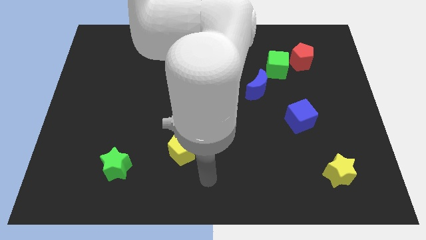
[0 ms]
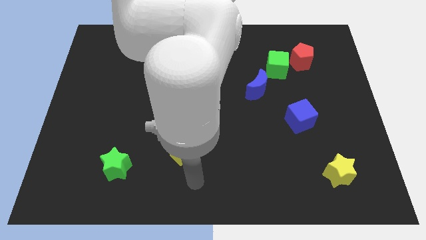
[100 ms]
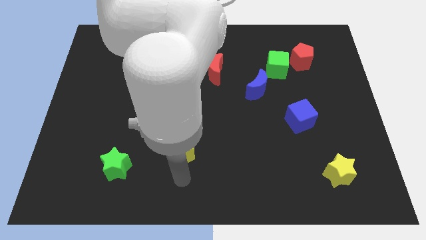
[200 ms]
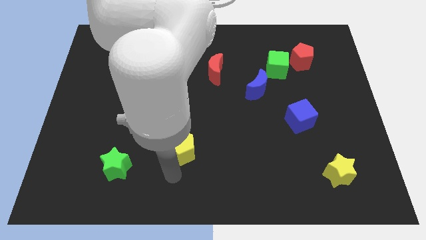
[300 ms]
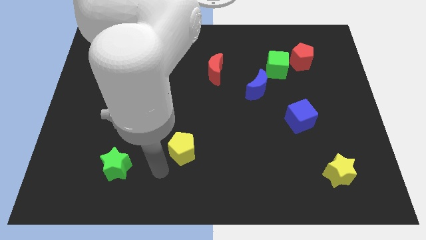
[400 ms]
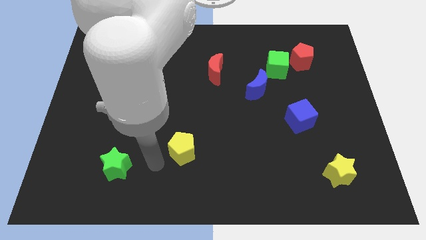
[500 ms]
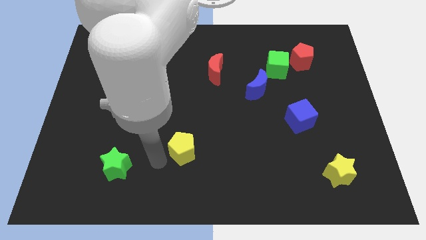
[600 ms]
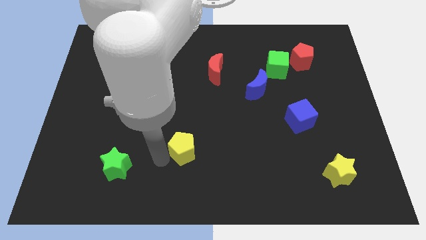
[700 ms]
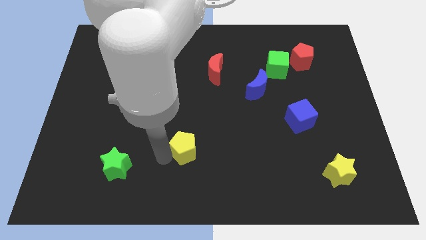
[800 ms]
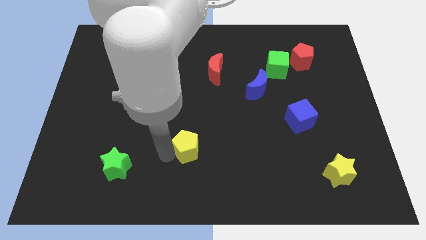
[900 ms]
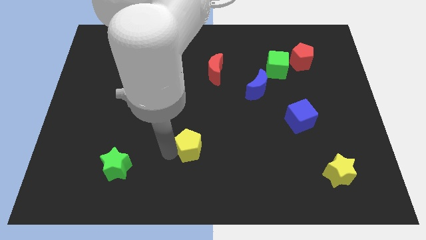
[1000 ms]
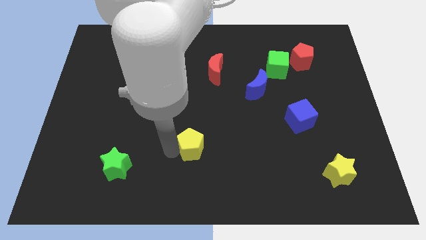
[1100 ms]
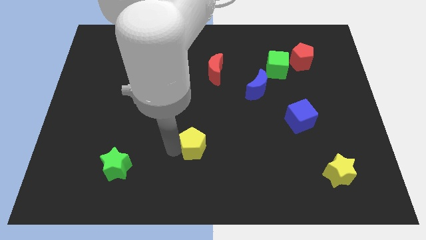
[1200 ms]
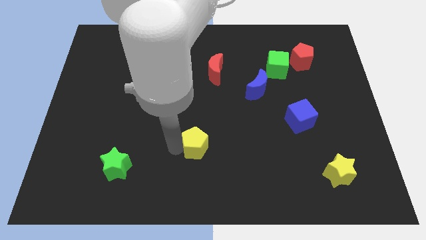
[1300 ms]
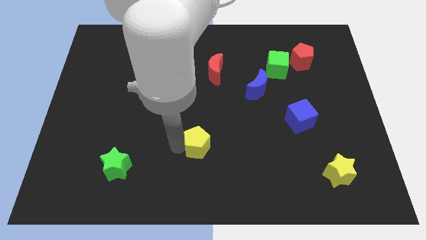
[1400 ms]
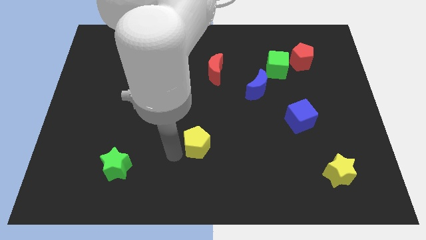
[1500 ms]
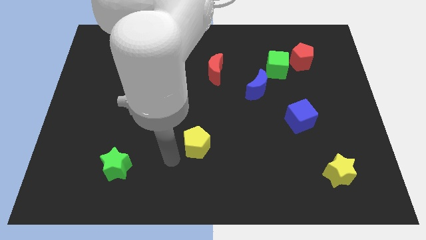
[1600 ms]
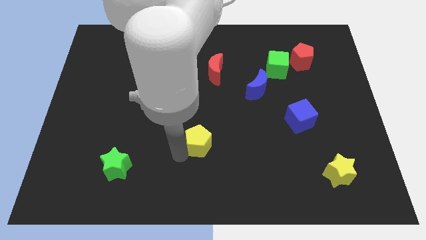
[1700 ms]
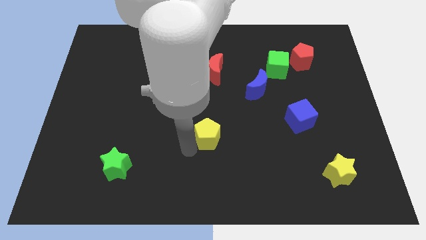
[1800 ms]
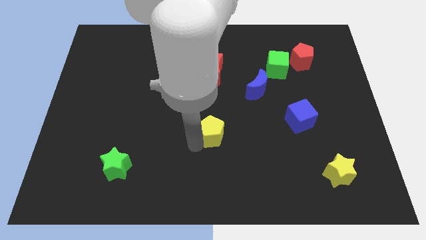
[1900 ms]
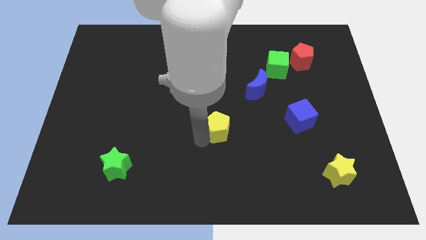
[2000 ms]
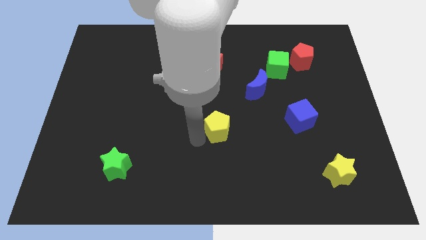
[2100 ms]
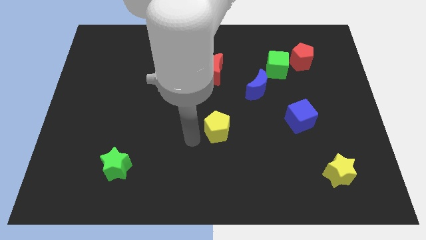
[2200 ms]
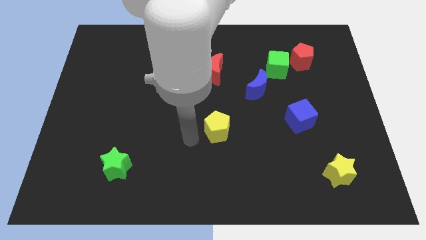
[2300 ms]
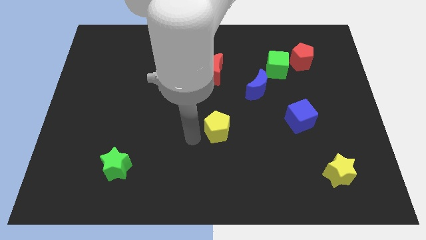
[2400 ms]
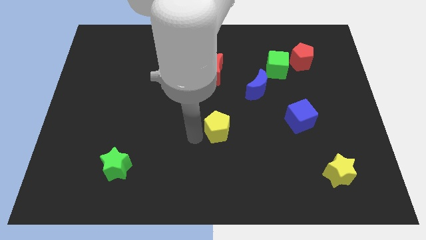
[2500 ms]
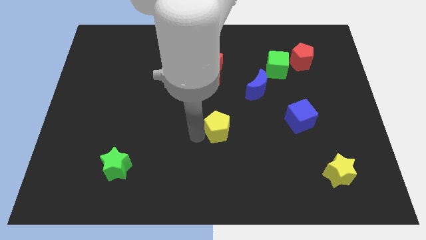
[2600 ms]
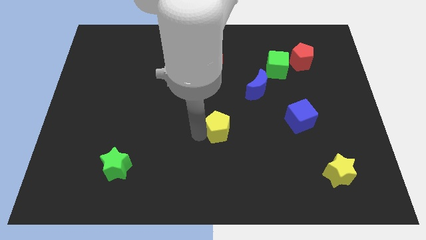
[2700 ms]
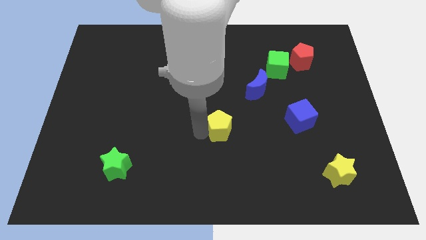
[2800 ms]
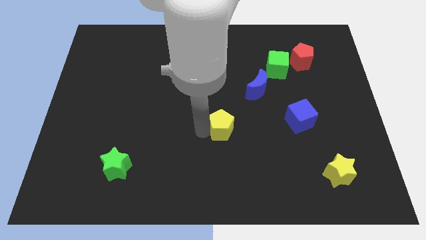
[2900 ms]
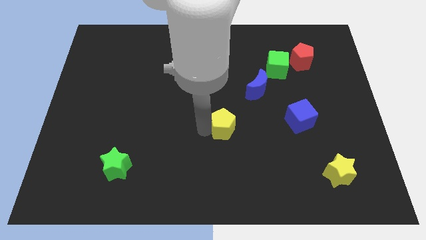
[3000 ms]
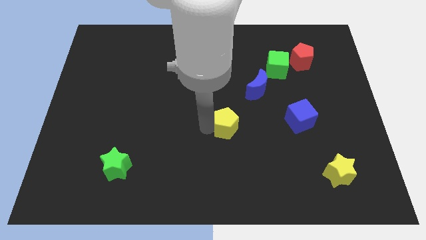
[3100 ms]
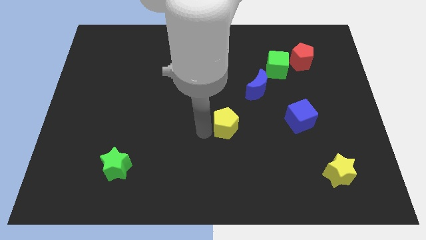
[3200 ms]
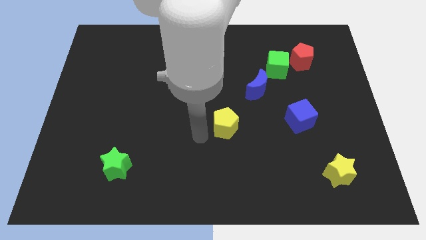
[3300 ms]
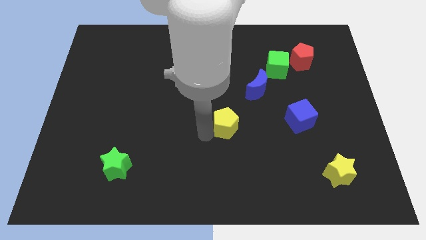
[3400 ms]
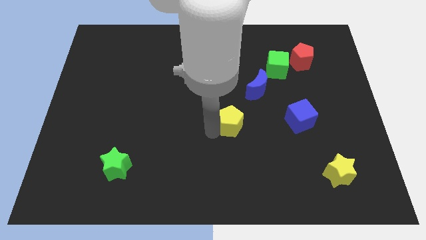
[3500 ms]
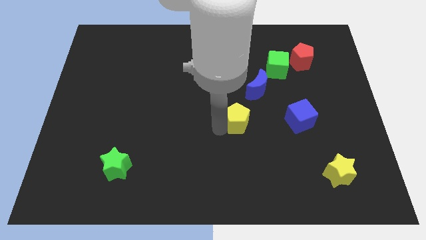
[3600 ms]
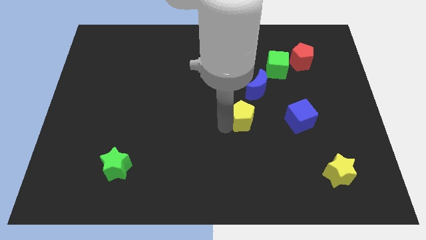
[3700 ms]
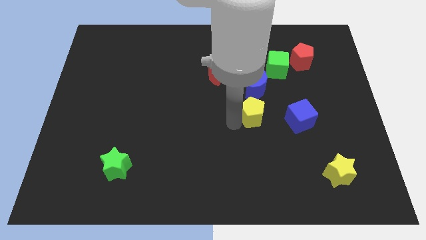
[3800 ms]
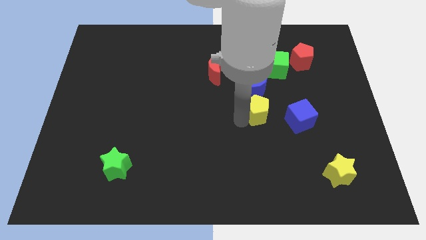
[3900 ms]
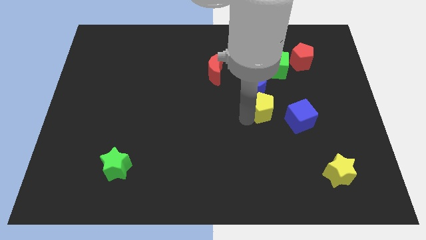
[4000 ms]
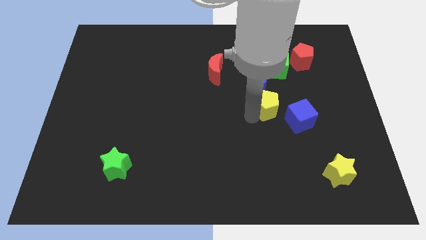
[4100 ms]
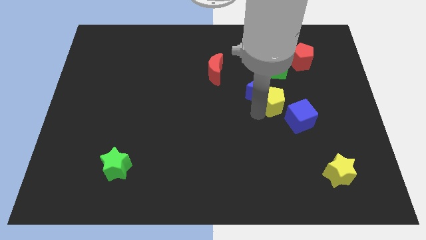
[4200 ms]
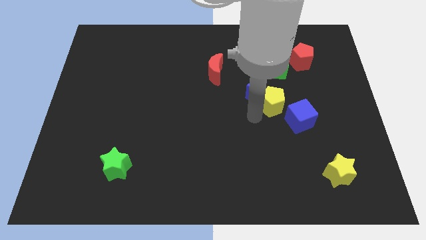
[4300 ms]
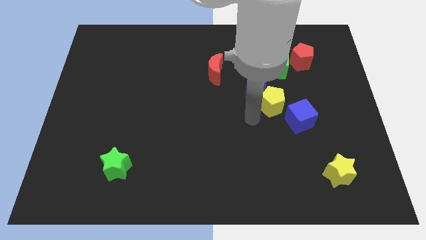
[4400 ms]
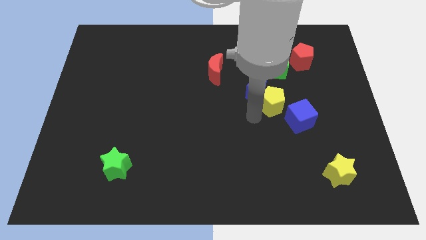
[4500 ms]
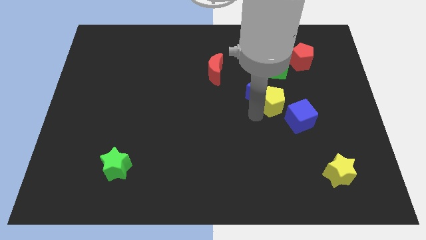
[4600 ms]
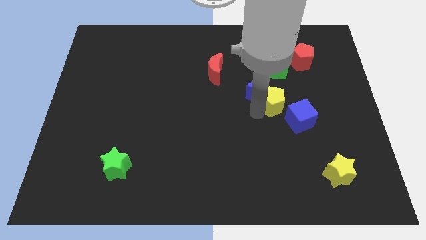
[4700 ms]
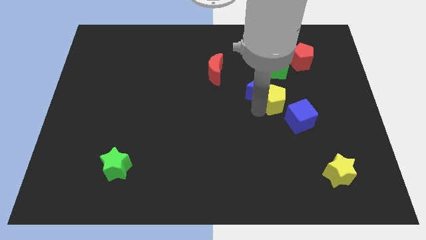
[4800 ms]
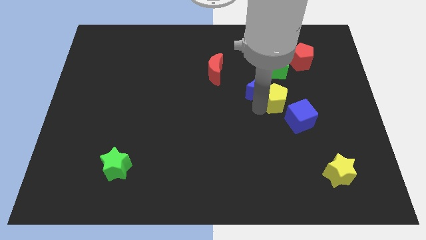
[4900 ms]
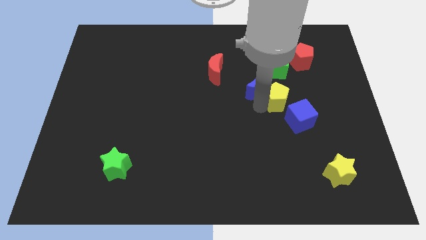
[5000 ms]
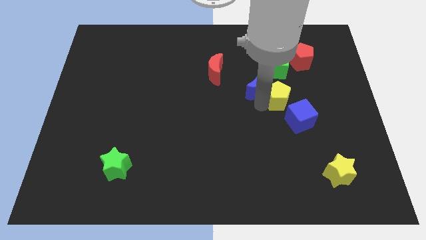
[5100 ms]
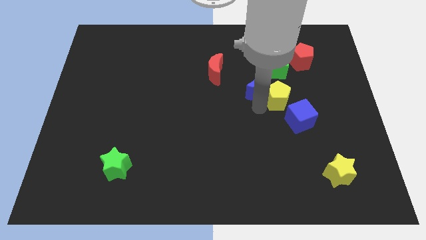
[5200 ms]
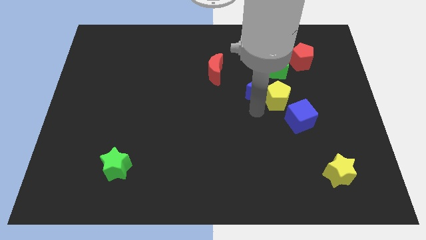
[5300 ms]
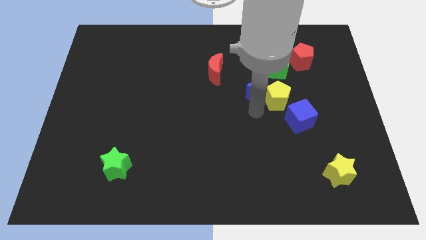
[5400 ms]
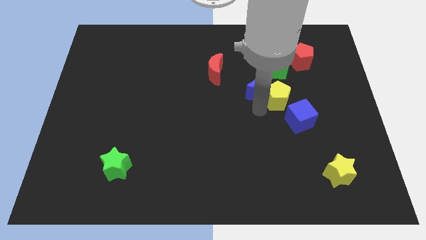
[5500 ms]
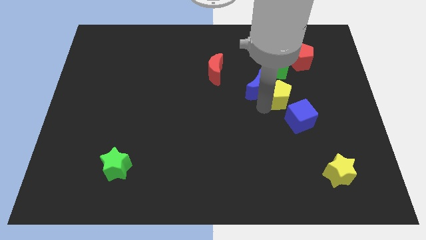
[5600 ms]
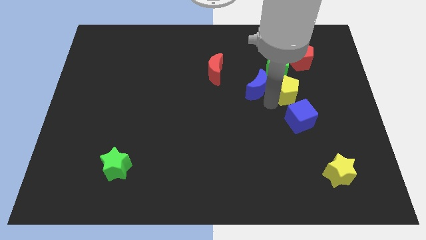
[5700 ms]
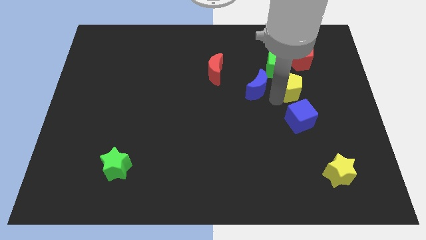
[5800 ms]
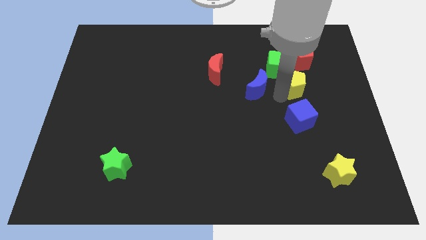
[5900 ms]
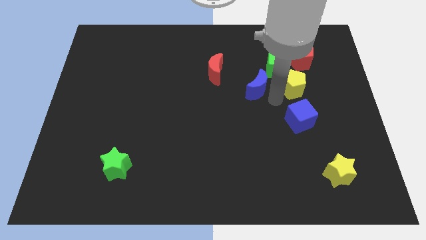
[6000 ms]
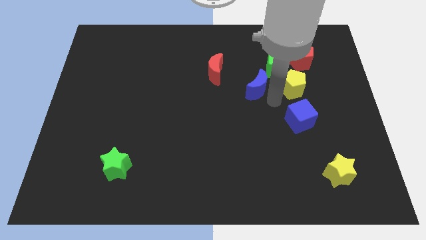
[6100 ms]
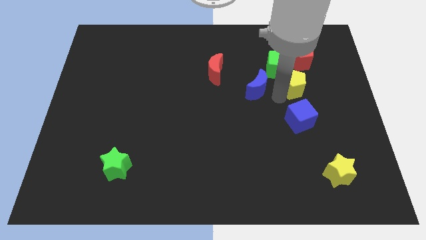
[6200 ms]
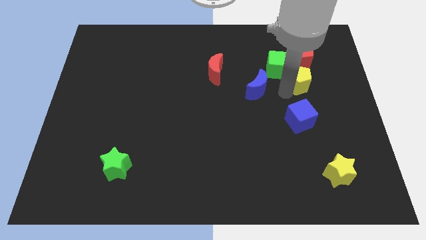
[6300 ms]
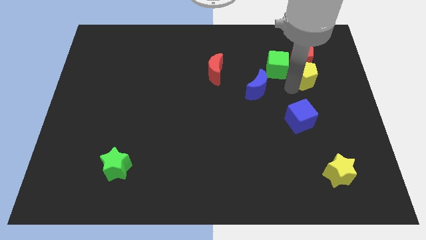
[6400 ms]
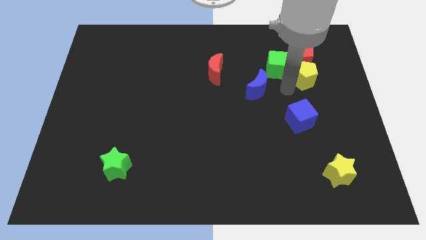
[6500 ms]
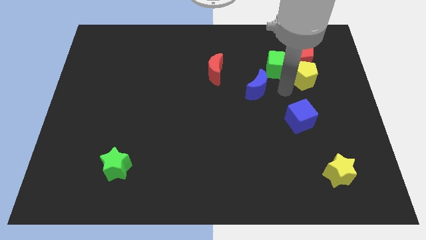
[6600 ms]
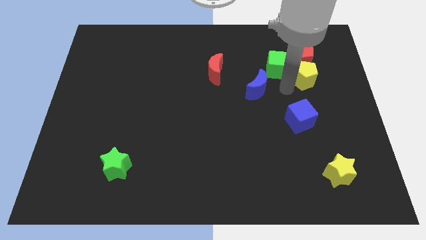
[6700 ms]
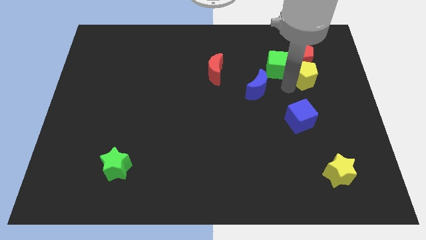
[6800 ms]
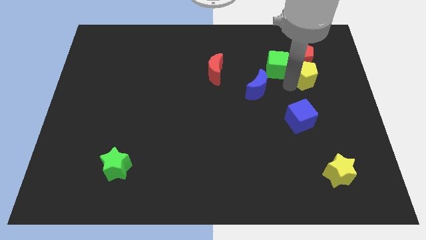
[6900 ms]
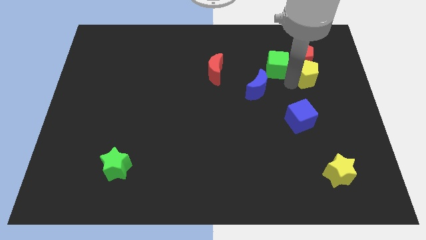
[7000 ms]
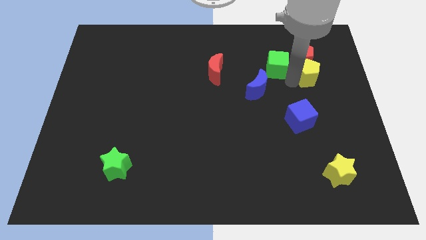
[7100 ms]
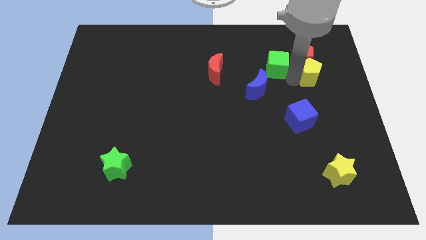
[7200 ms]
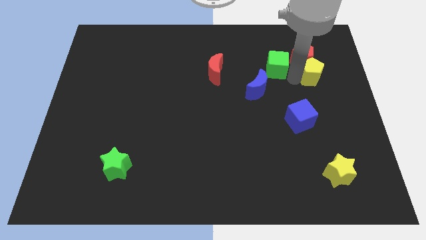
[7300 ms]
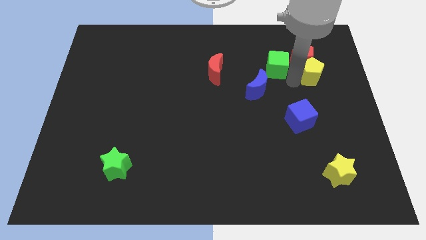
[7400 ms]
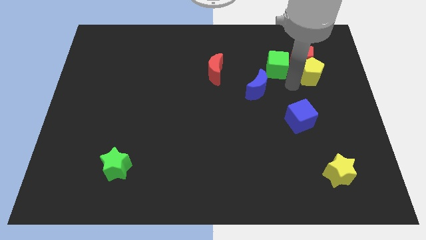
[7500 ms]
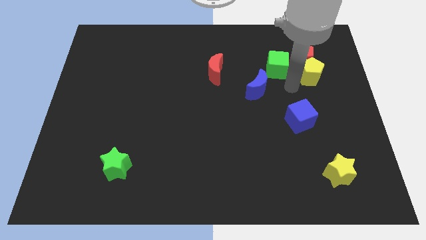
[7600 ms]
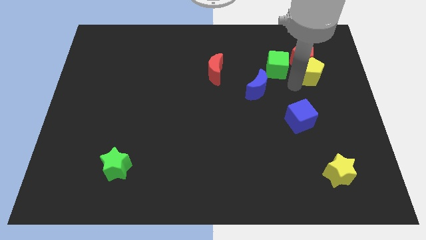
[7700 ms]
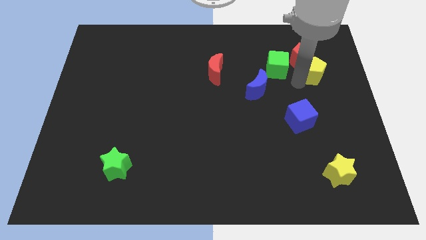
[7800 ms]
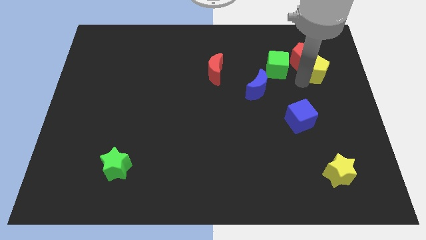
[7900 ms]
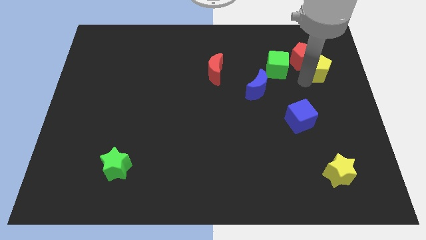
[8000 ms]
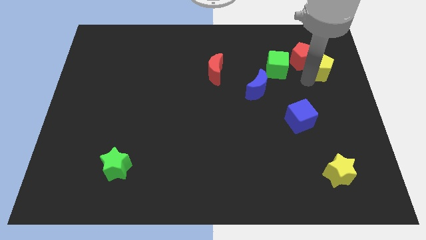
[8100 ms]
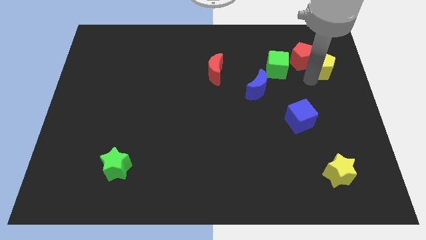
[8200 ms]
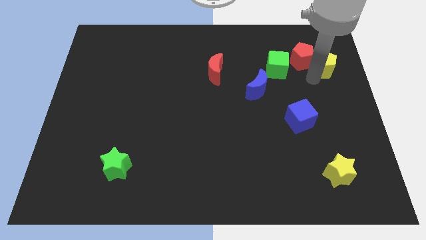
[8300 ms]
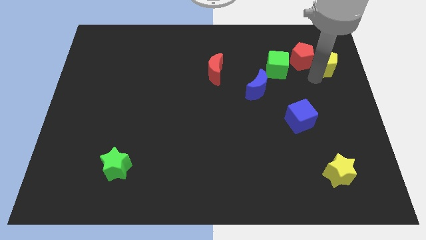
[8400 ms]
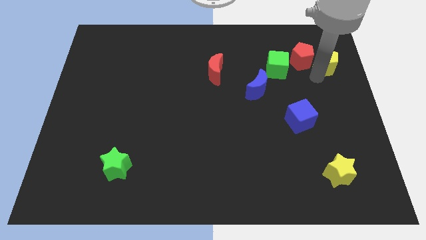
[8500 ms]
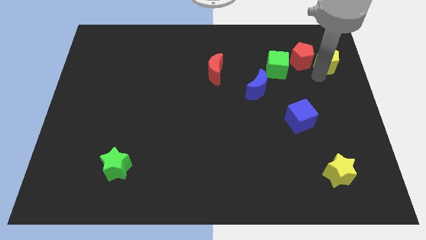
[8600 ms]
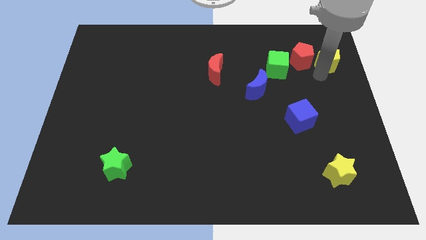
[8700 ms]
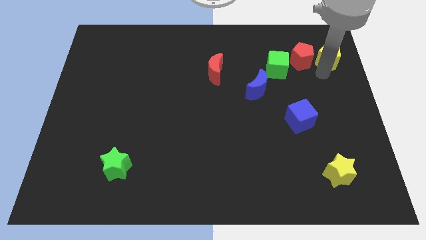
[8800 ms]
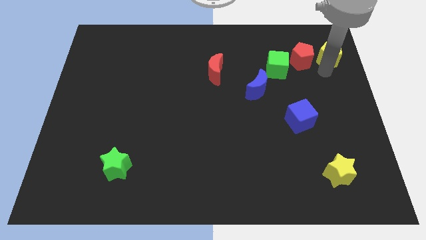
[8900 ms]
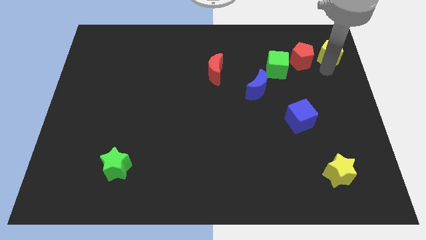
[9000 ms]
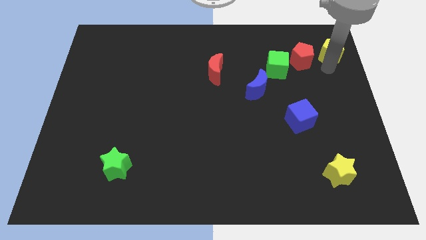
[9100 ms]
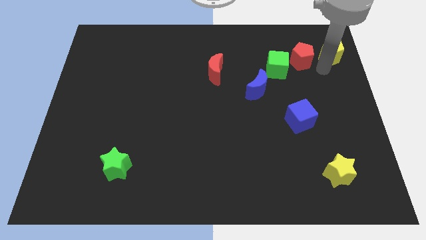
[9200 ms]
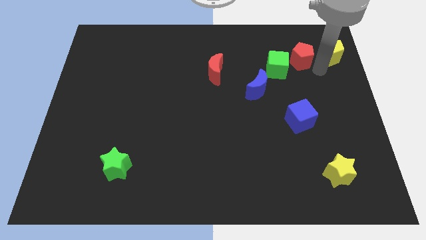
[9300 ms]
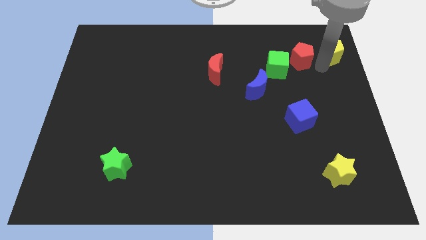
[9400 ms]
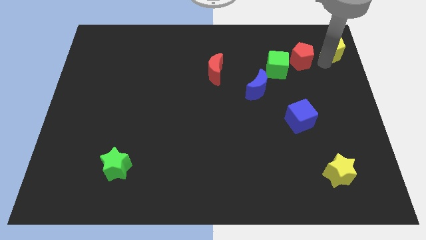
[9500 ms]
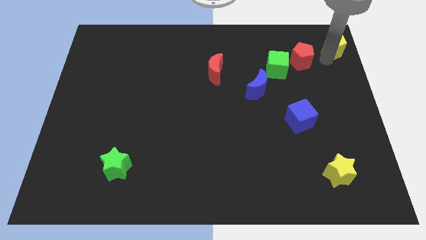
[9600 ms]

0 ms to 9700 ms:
slide the yellow pentagon to the top right of the board
